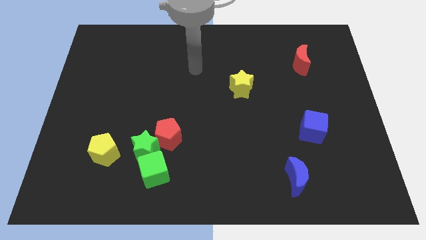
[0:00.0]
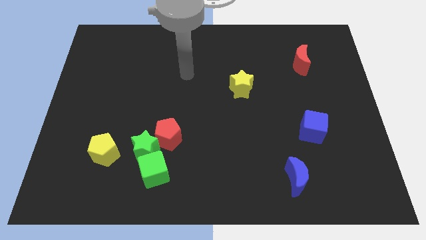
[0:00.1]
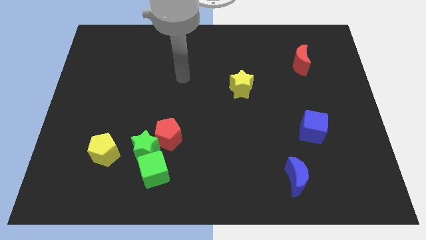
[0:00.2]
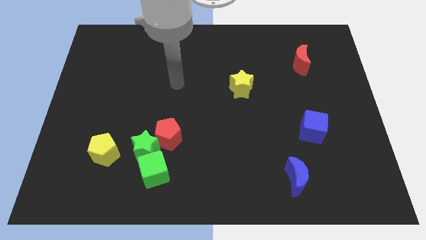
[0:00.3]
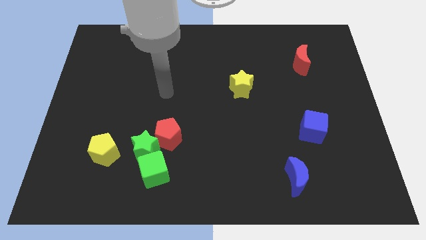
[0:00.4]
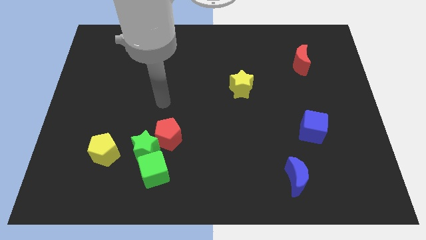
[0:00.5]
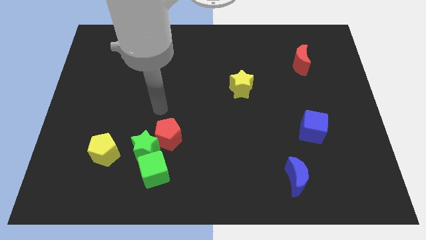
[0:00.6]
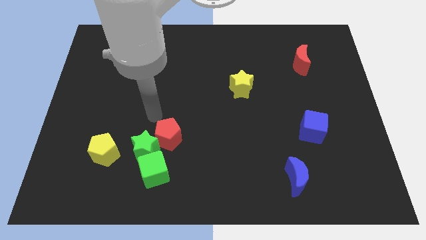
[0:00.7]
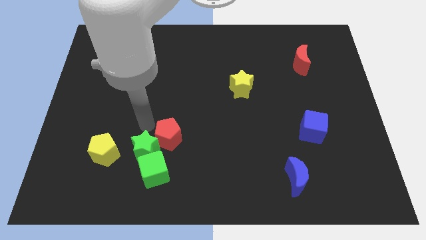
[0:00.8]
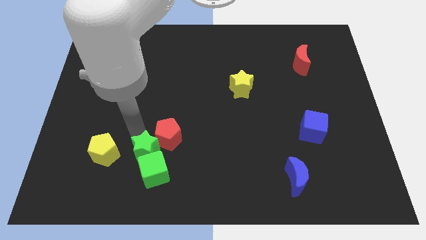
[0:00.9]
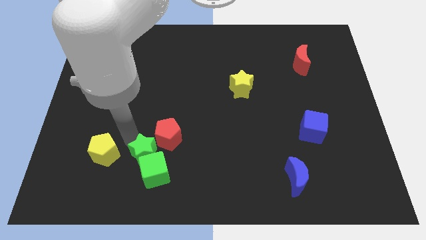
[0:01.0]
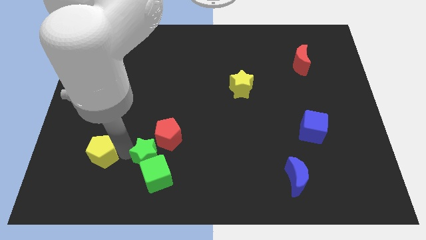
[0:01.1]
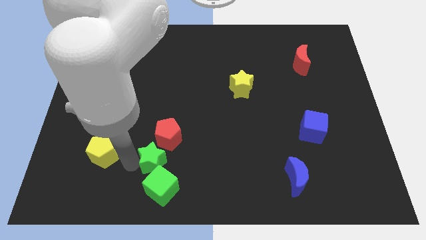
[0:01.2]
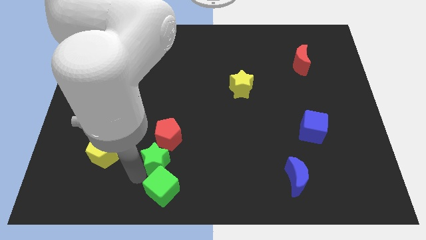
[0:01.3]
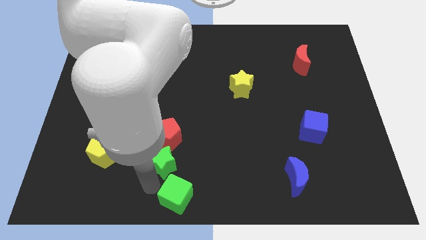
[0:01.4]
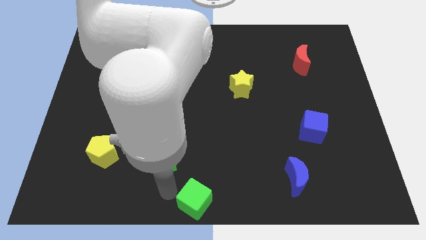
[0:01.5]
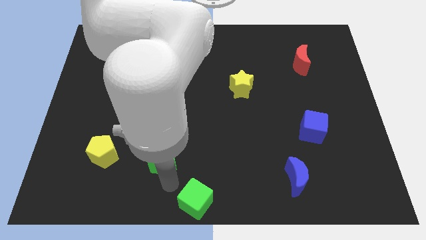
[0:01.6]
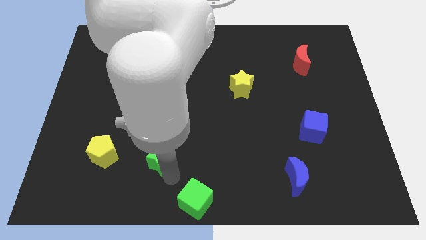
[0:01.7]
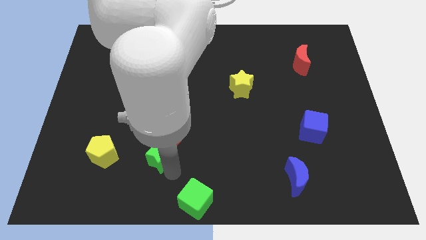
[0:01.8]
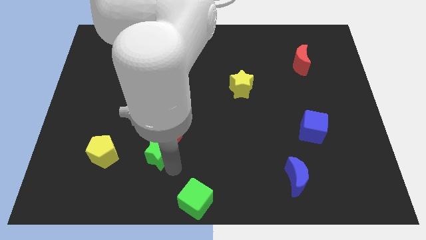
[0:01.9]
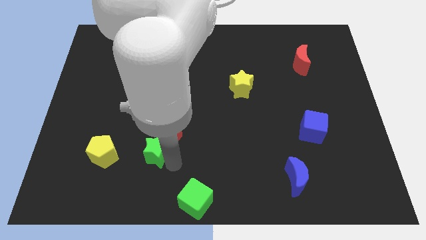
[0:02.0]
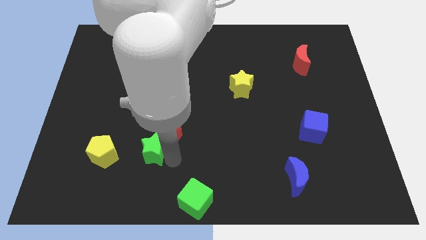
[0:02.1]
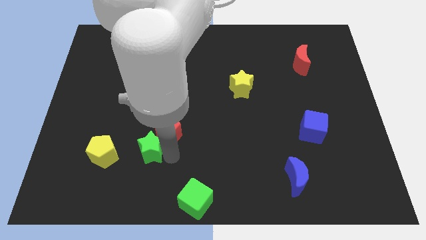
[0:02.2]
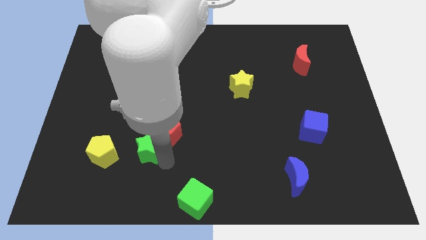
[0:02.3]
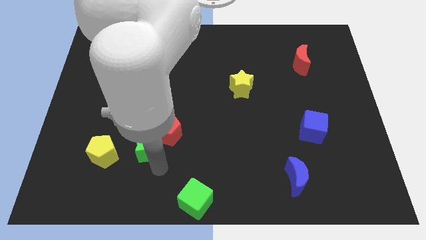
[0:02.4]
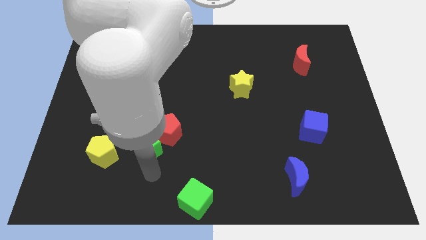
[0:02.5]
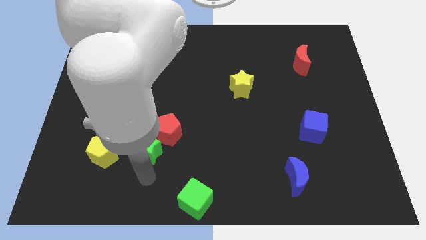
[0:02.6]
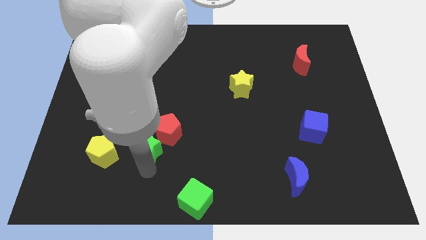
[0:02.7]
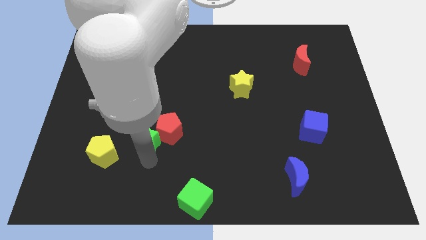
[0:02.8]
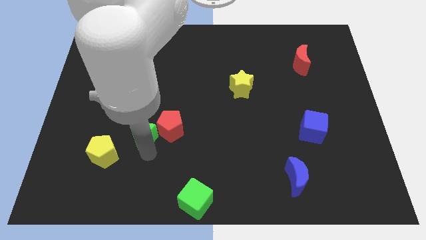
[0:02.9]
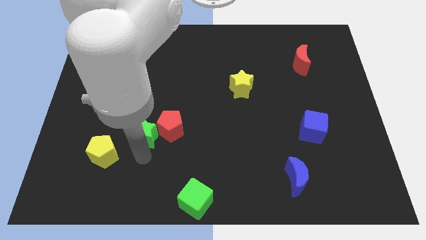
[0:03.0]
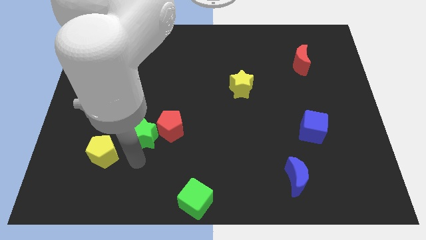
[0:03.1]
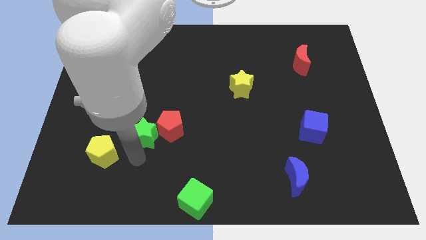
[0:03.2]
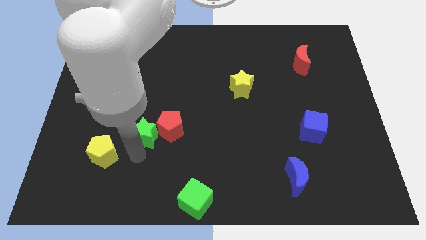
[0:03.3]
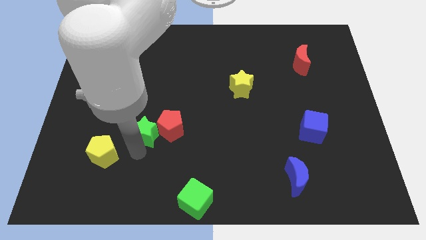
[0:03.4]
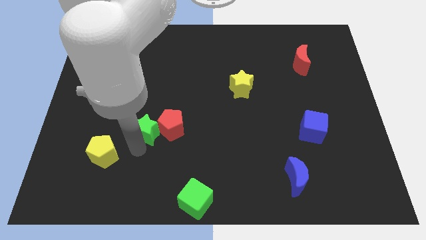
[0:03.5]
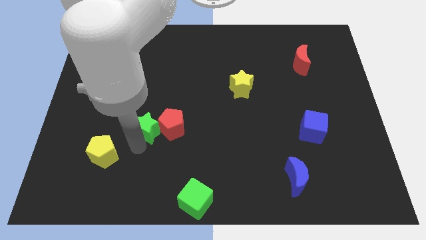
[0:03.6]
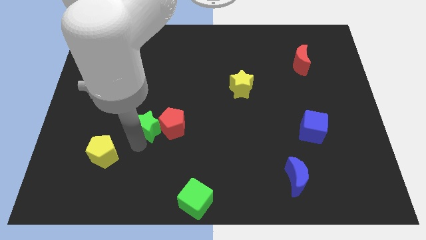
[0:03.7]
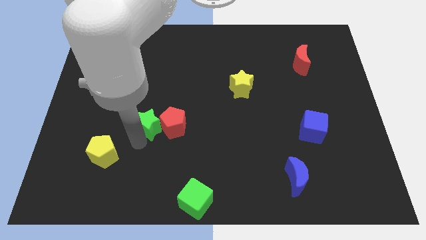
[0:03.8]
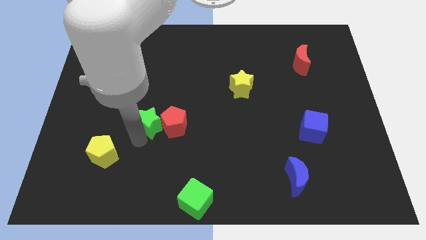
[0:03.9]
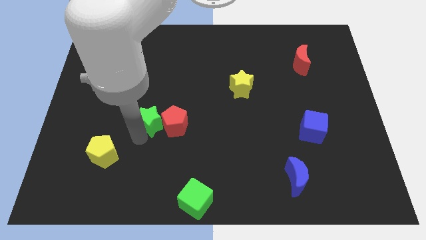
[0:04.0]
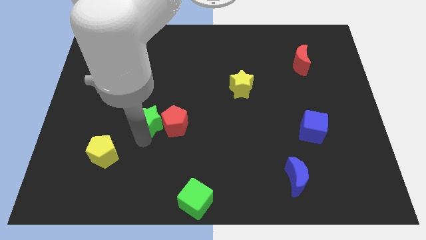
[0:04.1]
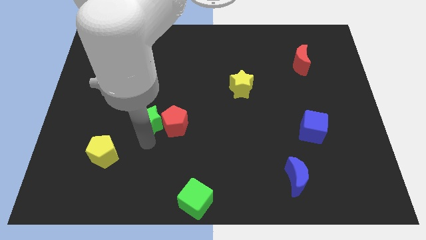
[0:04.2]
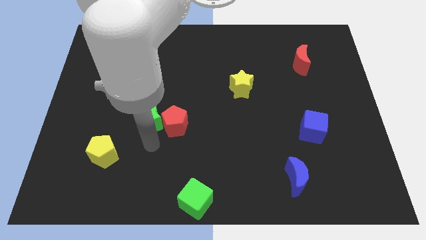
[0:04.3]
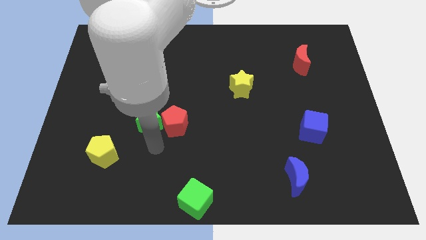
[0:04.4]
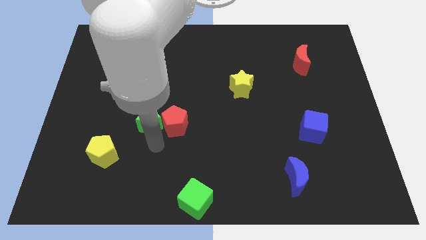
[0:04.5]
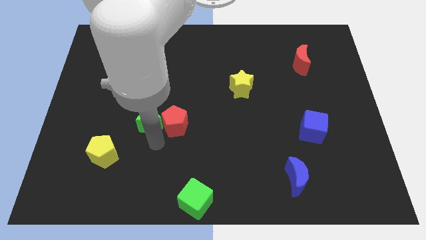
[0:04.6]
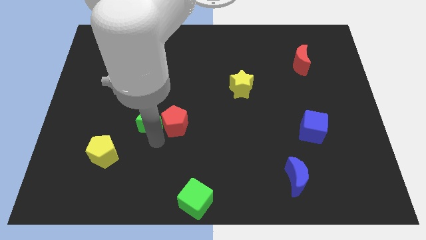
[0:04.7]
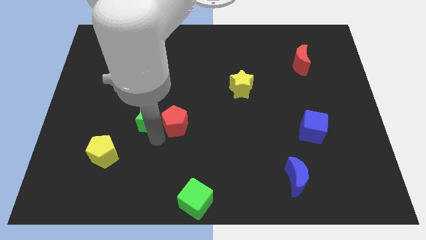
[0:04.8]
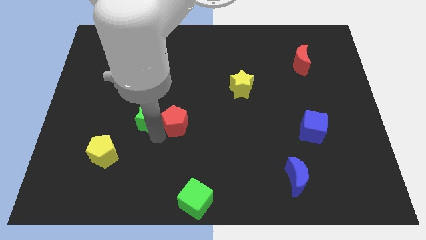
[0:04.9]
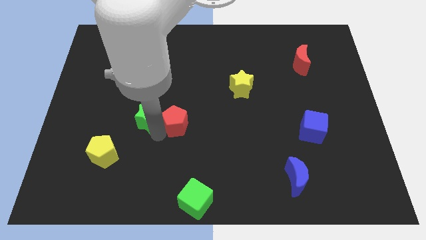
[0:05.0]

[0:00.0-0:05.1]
separate the green star from the clump

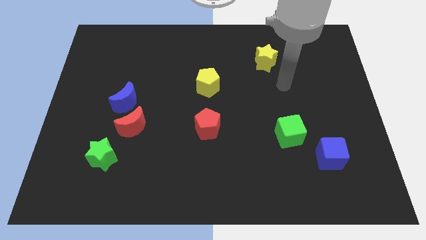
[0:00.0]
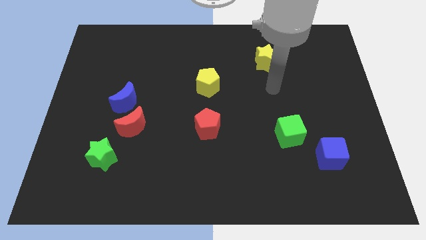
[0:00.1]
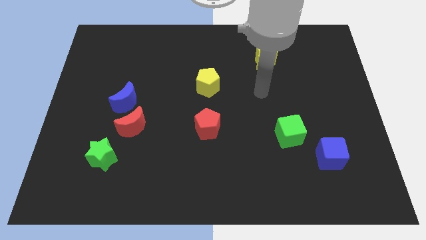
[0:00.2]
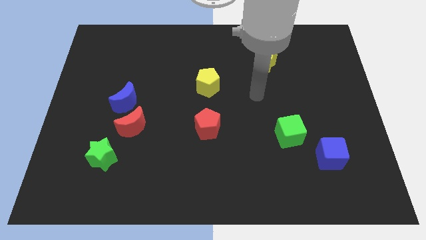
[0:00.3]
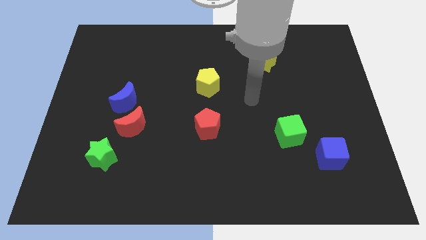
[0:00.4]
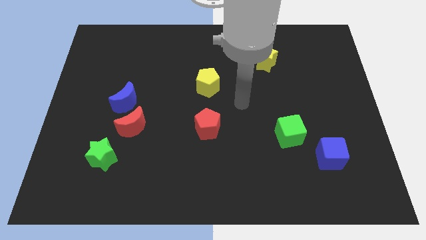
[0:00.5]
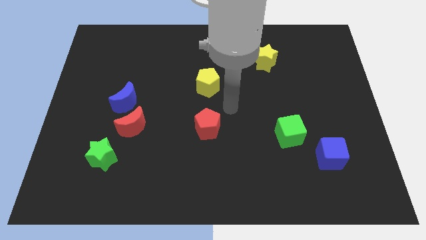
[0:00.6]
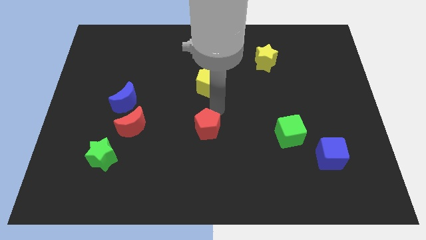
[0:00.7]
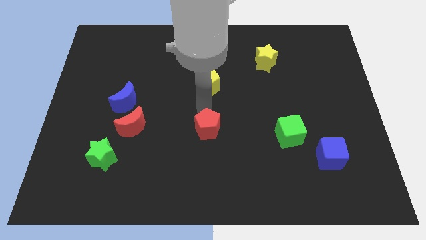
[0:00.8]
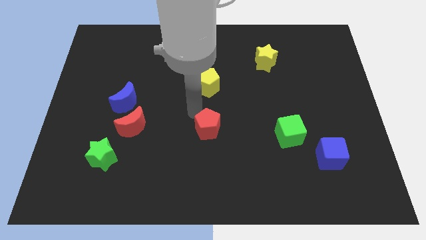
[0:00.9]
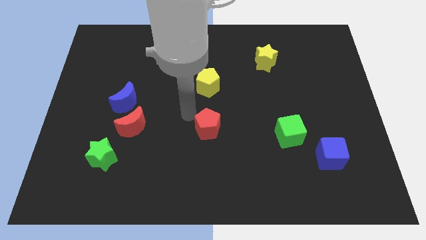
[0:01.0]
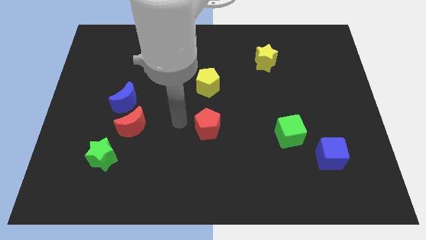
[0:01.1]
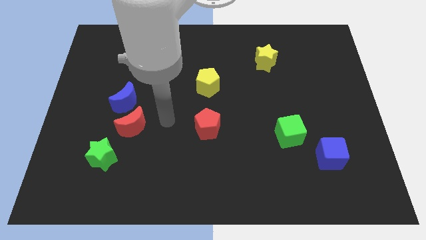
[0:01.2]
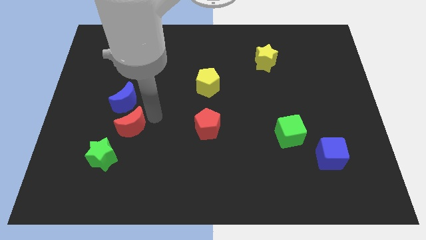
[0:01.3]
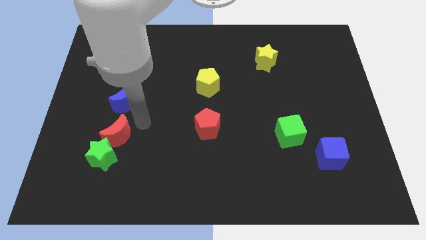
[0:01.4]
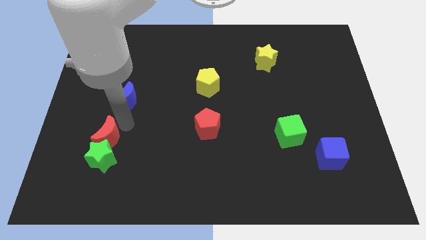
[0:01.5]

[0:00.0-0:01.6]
separate the blue moon from the red moon

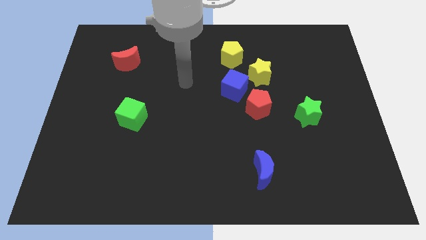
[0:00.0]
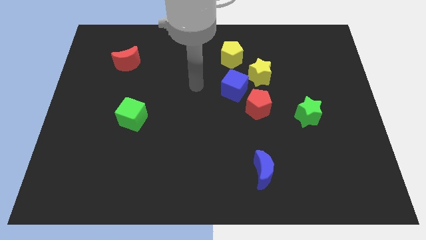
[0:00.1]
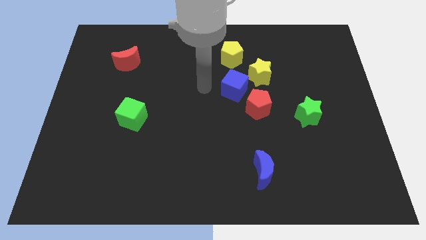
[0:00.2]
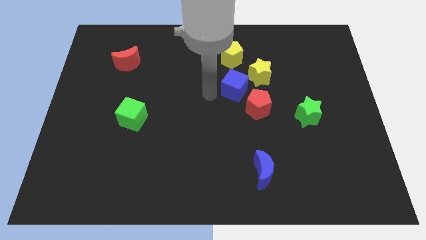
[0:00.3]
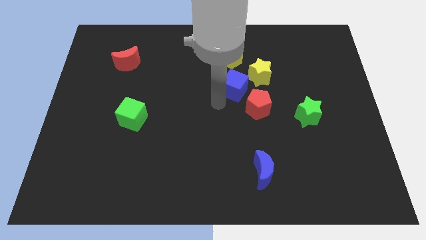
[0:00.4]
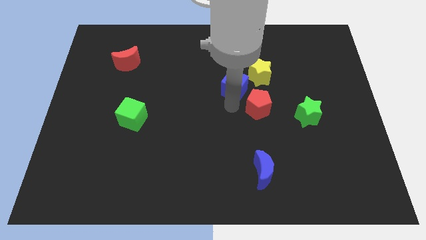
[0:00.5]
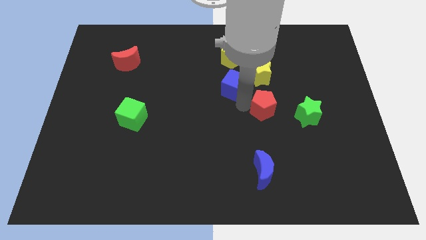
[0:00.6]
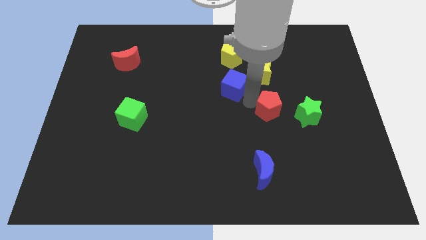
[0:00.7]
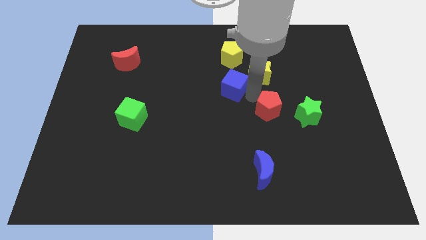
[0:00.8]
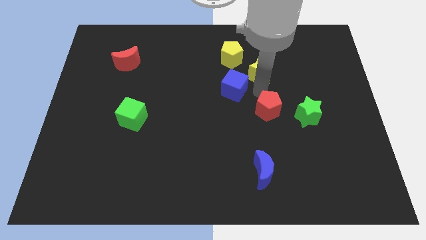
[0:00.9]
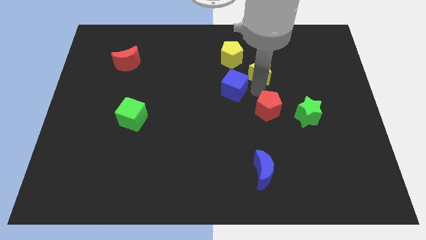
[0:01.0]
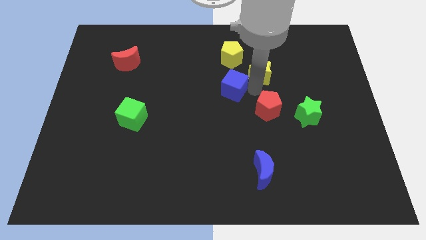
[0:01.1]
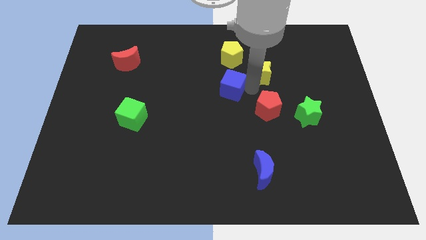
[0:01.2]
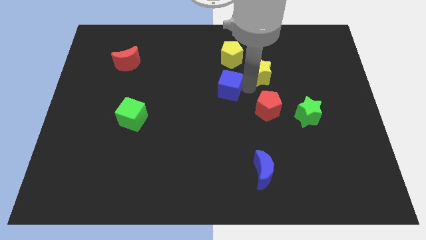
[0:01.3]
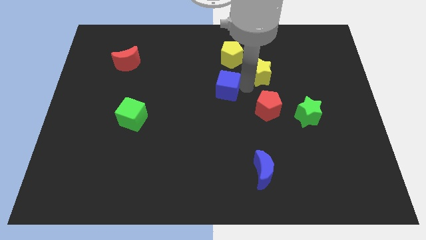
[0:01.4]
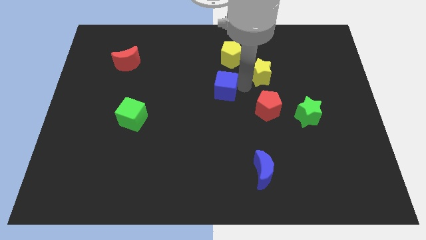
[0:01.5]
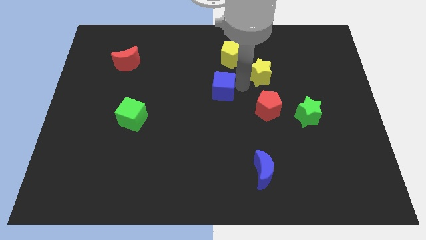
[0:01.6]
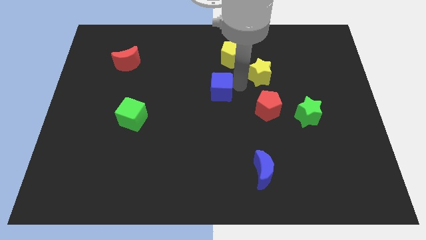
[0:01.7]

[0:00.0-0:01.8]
separate the blue cube from the yellow star and red pentagon

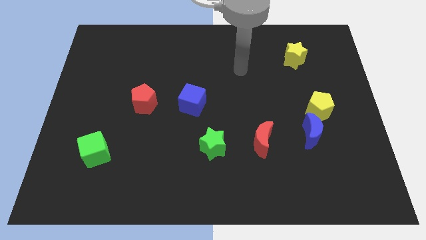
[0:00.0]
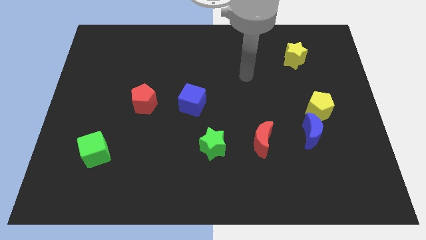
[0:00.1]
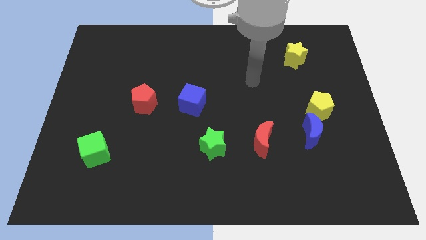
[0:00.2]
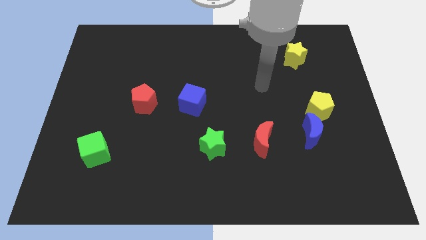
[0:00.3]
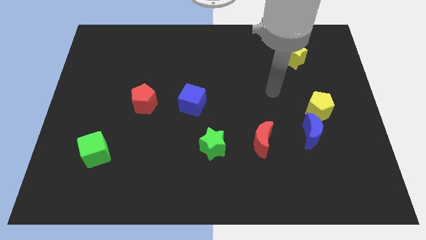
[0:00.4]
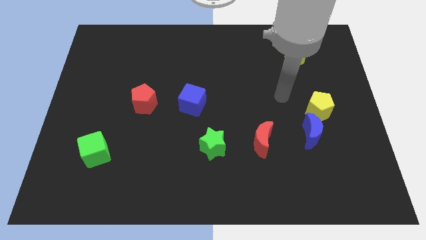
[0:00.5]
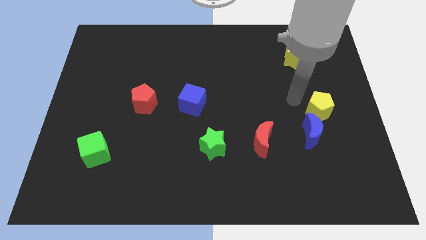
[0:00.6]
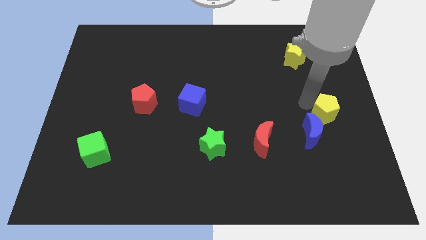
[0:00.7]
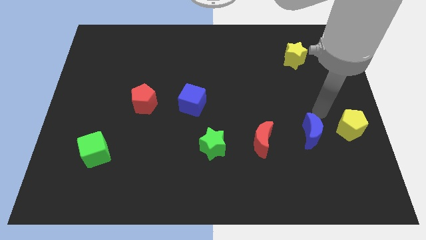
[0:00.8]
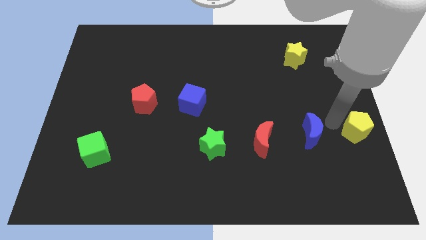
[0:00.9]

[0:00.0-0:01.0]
move the blue moon away from the yellow pentagon
